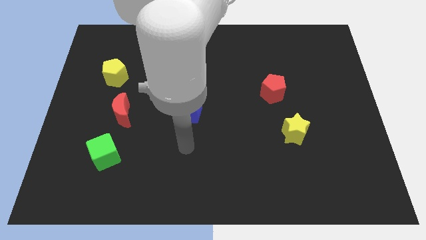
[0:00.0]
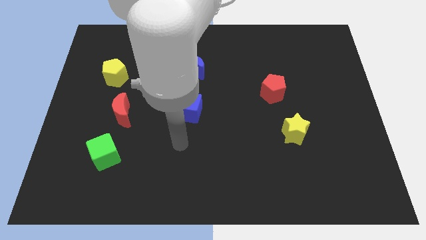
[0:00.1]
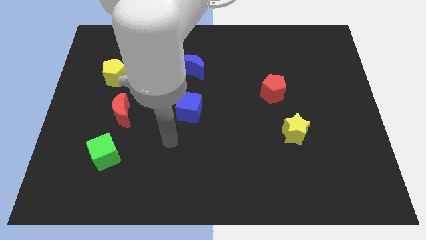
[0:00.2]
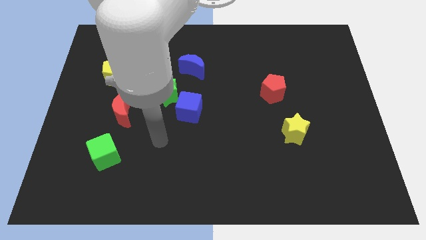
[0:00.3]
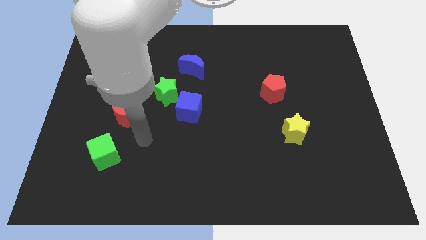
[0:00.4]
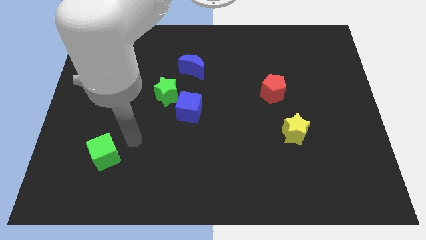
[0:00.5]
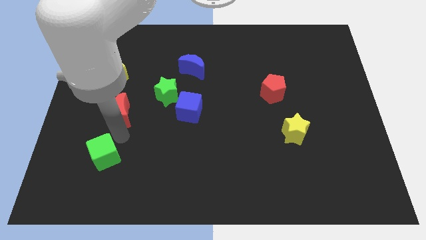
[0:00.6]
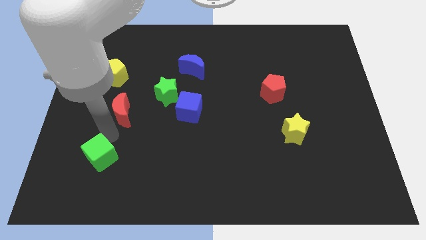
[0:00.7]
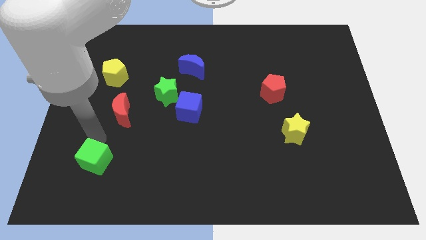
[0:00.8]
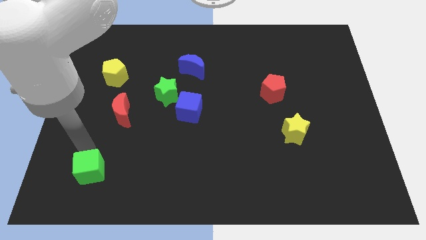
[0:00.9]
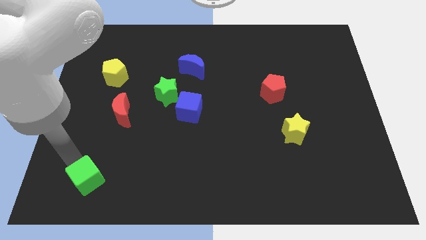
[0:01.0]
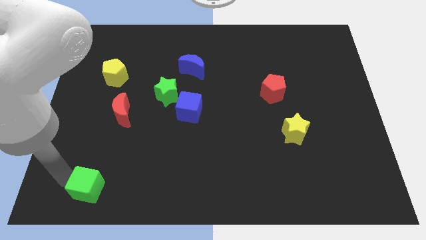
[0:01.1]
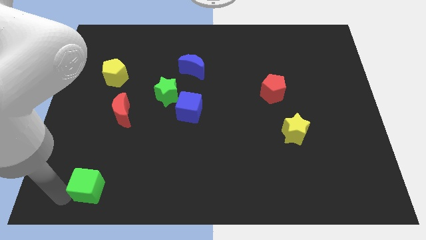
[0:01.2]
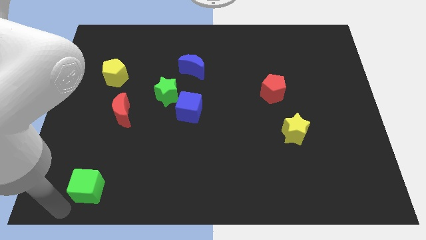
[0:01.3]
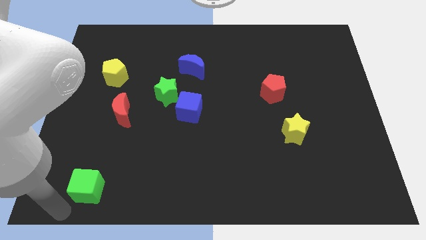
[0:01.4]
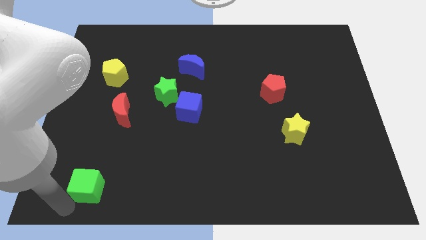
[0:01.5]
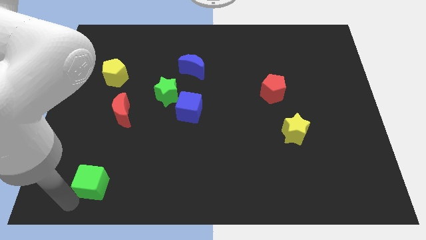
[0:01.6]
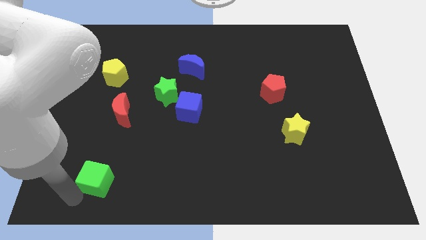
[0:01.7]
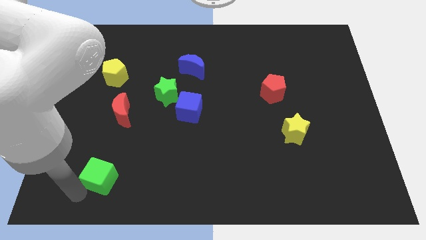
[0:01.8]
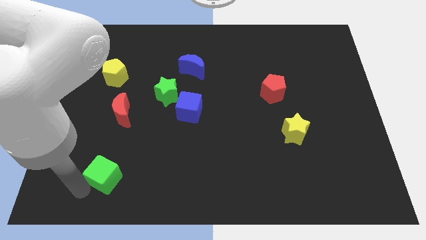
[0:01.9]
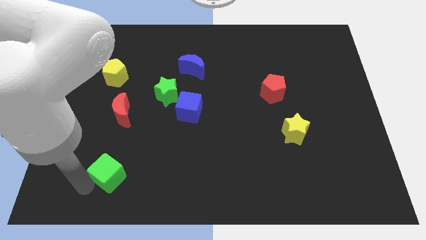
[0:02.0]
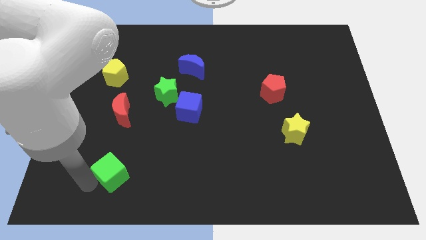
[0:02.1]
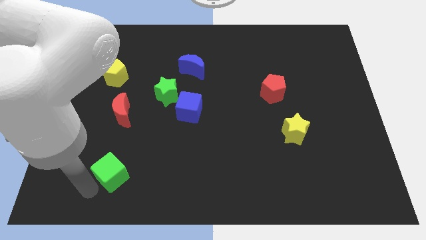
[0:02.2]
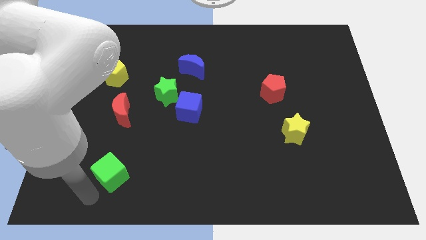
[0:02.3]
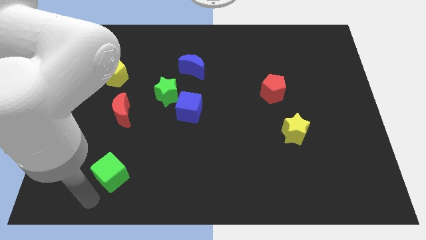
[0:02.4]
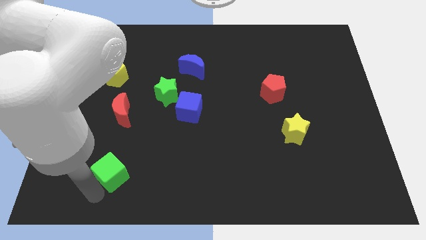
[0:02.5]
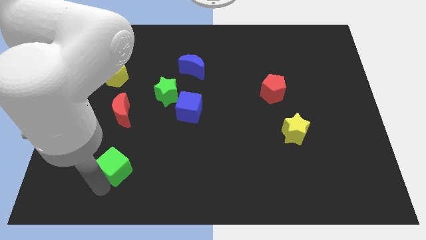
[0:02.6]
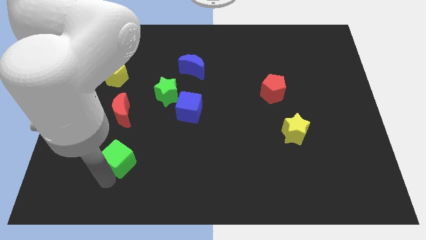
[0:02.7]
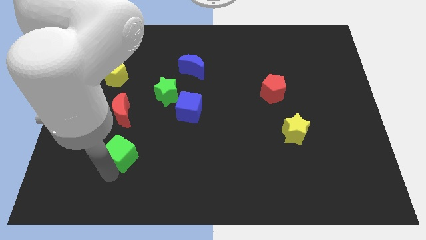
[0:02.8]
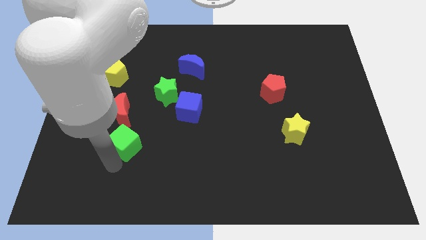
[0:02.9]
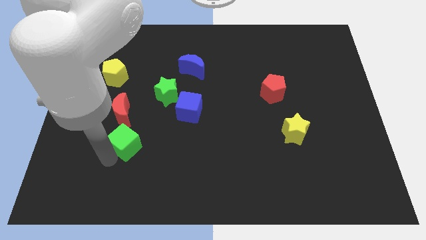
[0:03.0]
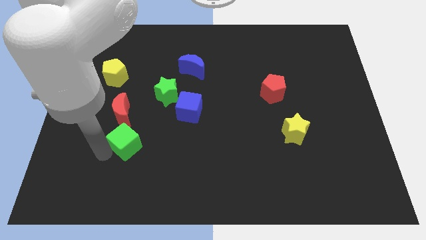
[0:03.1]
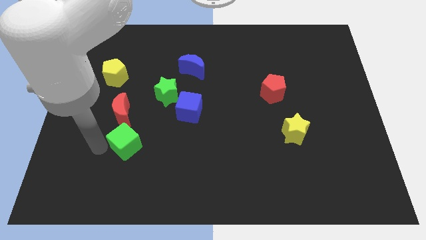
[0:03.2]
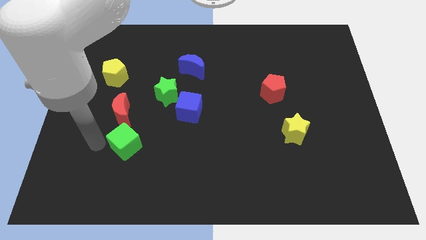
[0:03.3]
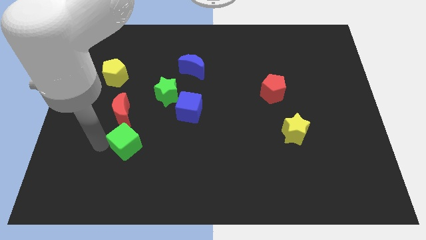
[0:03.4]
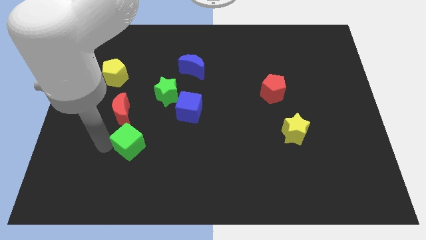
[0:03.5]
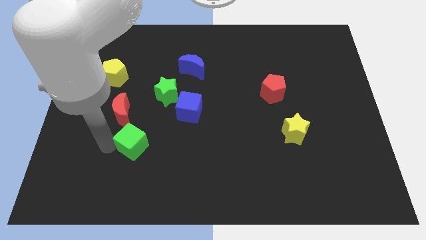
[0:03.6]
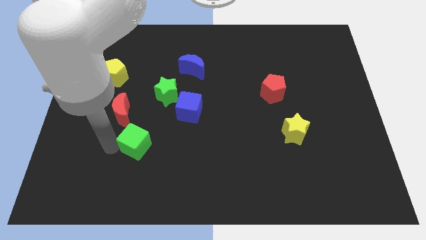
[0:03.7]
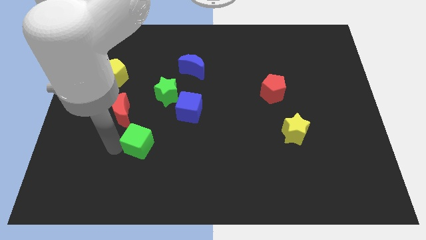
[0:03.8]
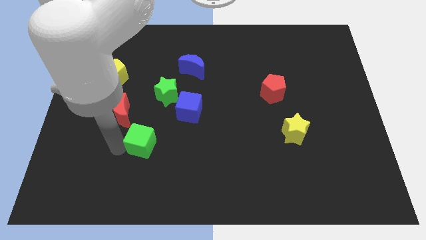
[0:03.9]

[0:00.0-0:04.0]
slightly push the green cube right

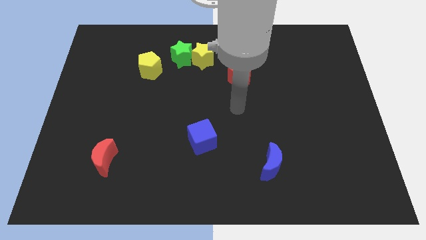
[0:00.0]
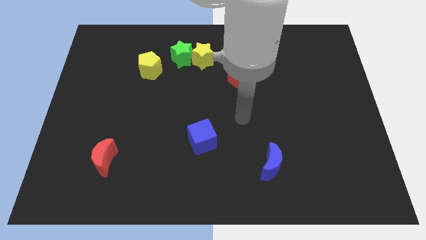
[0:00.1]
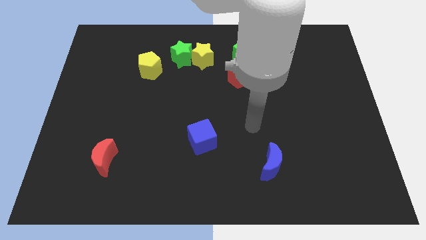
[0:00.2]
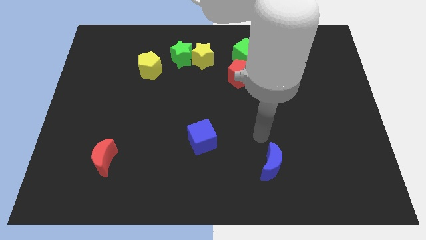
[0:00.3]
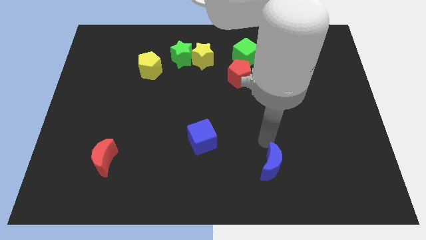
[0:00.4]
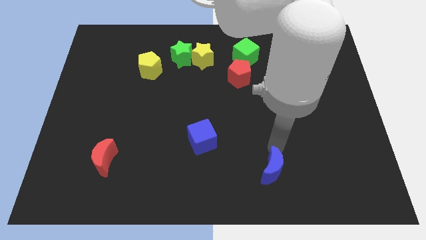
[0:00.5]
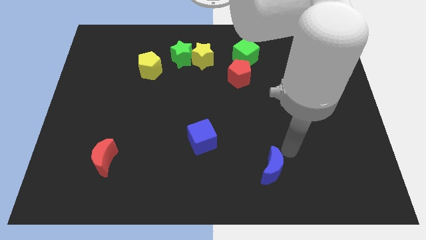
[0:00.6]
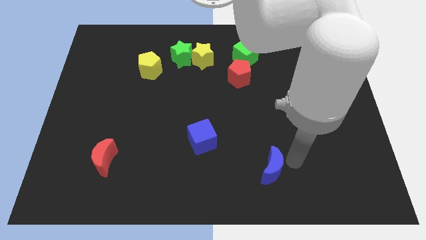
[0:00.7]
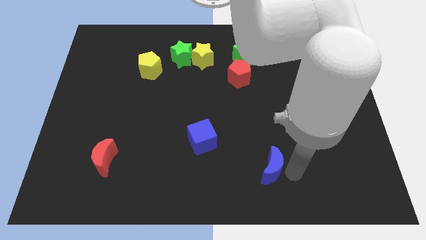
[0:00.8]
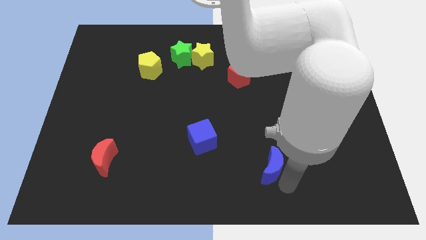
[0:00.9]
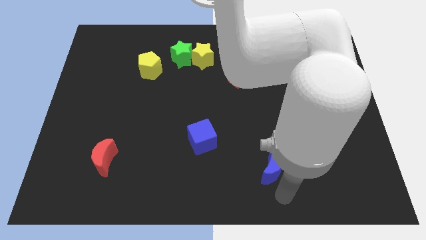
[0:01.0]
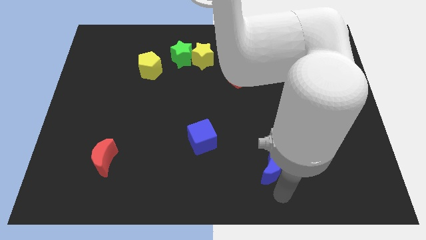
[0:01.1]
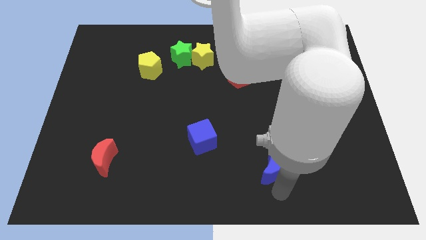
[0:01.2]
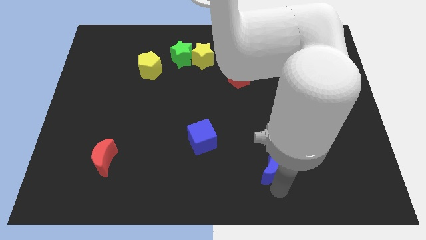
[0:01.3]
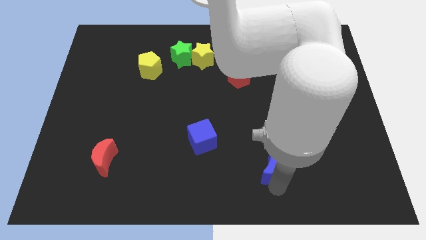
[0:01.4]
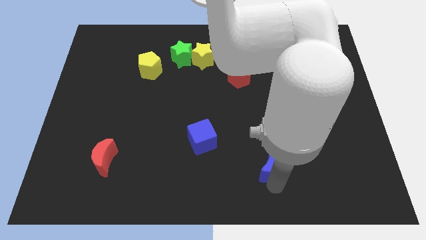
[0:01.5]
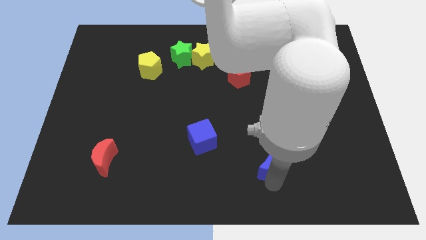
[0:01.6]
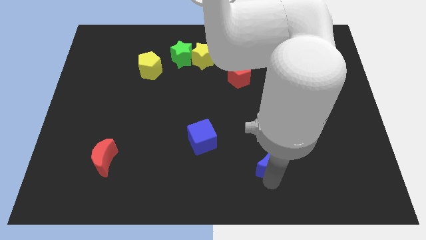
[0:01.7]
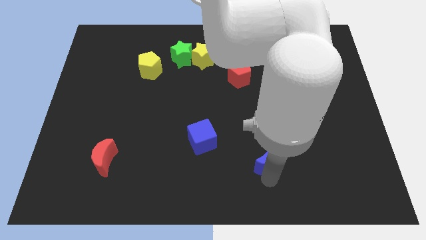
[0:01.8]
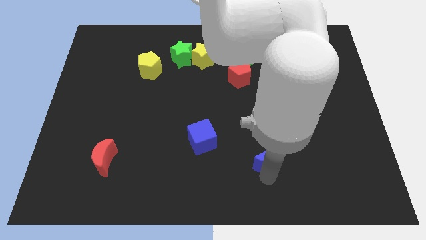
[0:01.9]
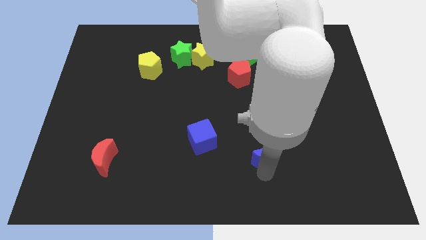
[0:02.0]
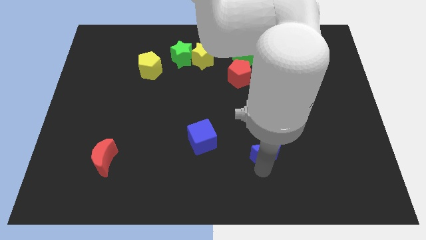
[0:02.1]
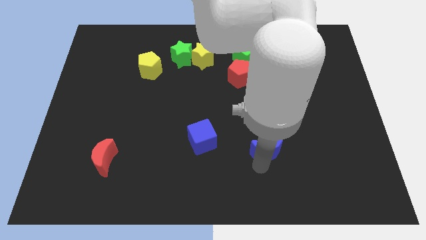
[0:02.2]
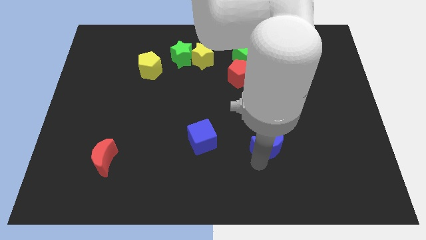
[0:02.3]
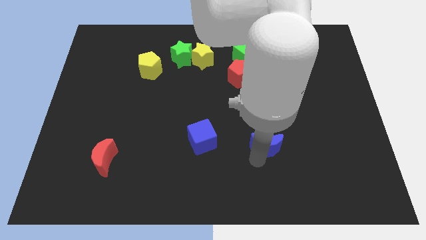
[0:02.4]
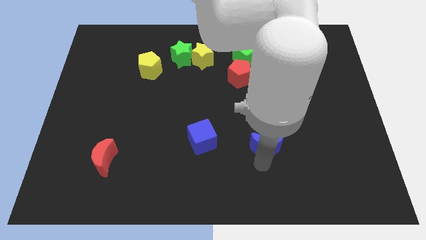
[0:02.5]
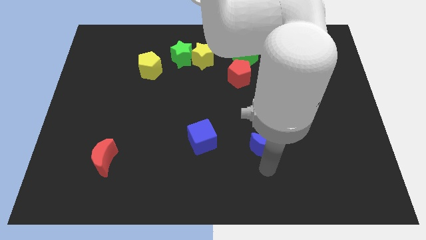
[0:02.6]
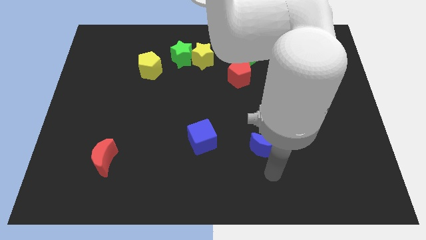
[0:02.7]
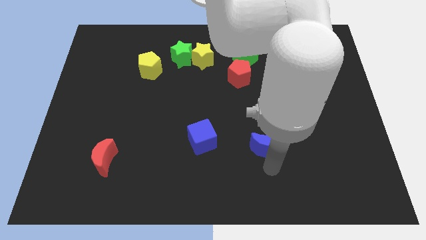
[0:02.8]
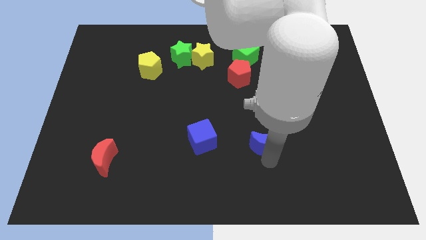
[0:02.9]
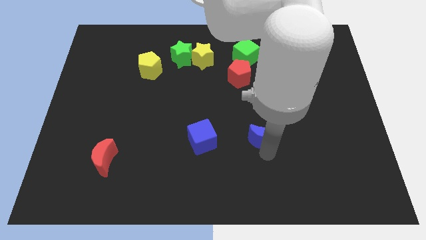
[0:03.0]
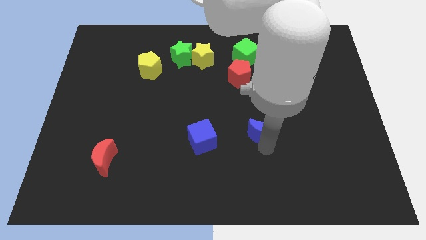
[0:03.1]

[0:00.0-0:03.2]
move the blue moon a little up

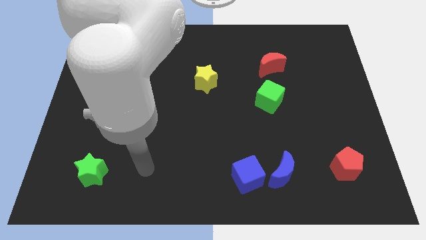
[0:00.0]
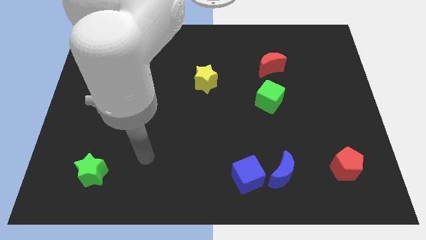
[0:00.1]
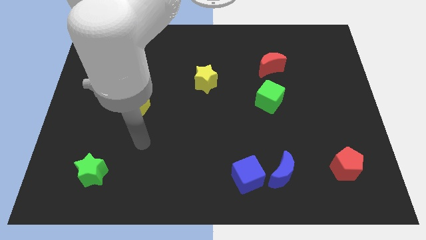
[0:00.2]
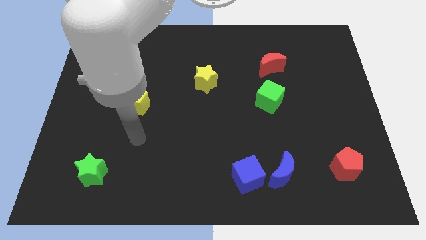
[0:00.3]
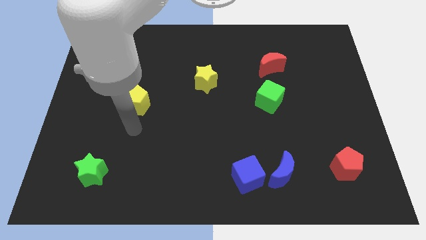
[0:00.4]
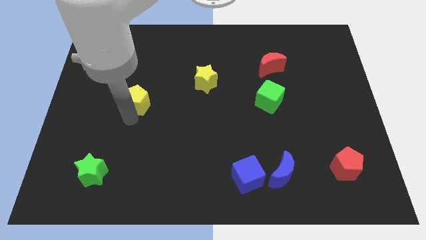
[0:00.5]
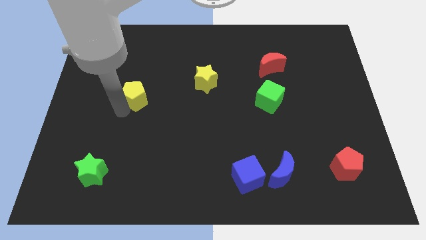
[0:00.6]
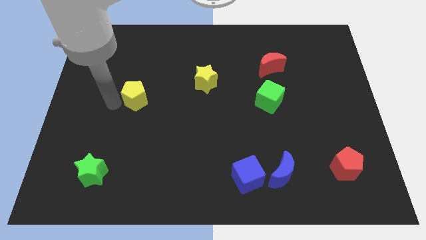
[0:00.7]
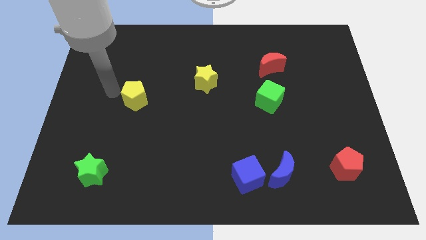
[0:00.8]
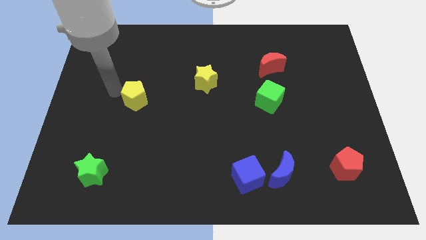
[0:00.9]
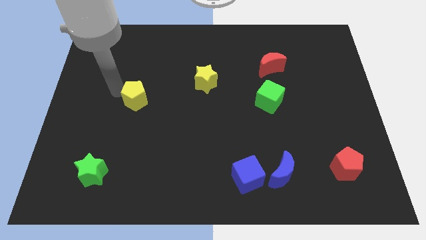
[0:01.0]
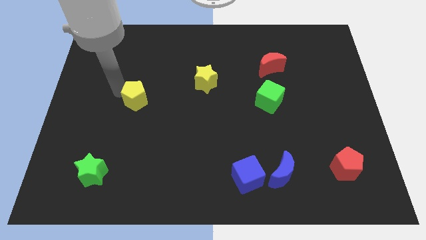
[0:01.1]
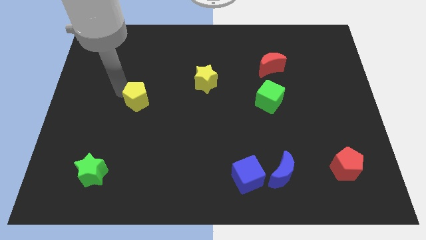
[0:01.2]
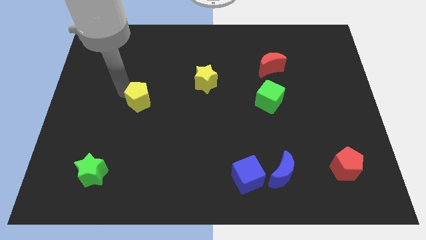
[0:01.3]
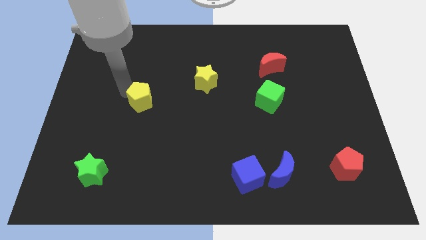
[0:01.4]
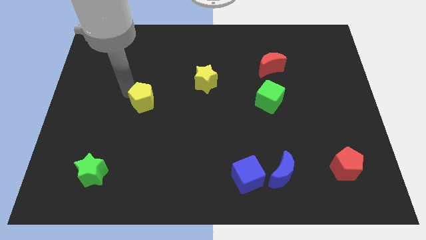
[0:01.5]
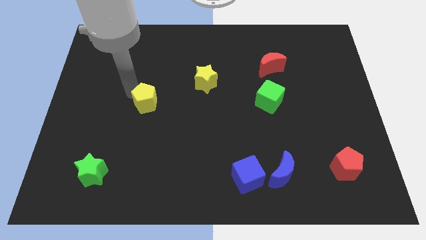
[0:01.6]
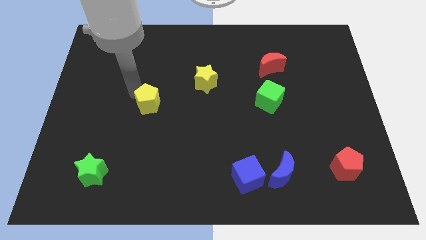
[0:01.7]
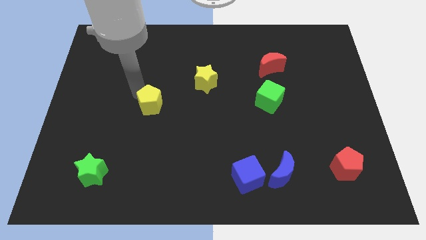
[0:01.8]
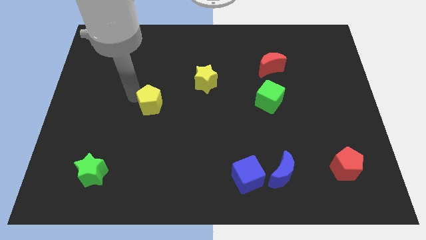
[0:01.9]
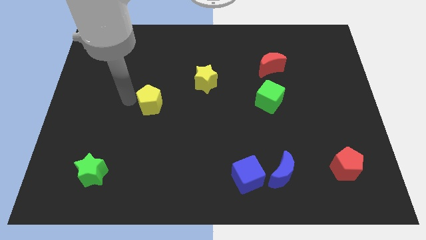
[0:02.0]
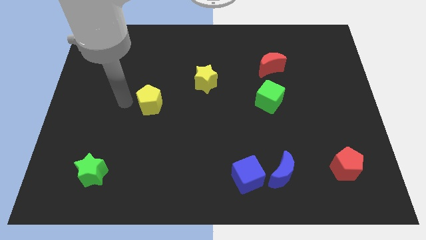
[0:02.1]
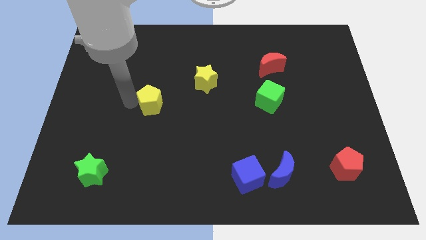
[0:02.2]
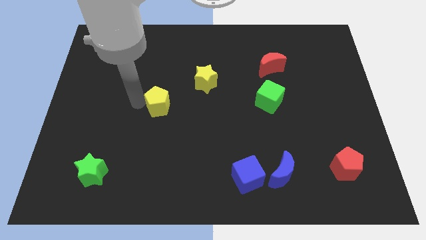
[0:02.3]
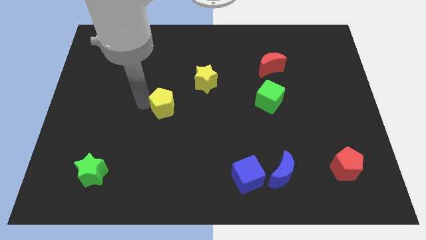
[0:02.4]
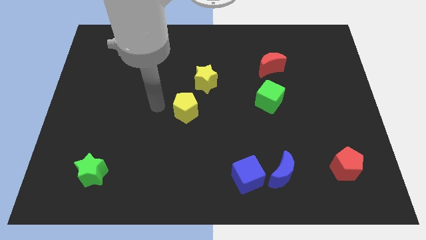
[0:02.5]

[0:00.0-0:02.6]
push the yellow pentagon right a little
